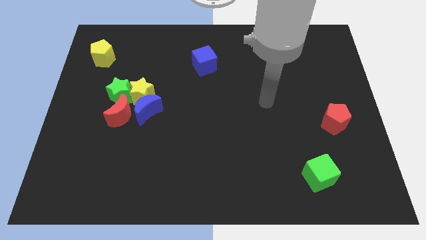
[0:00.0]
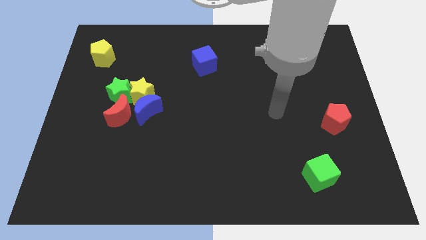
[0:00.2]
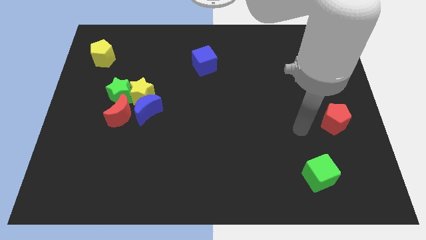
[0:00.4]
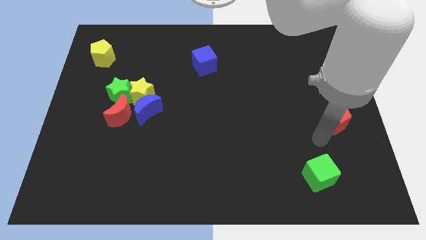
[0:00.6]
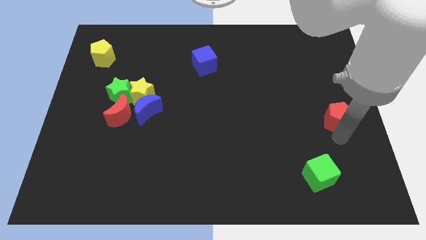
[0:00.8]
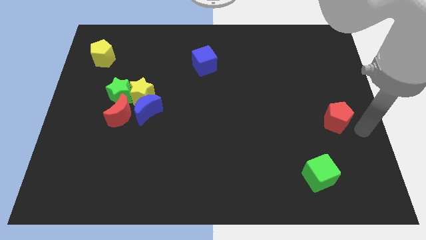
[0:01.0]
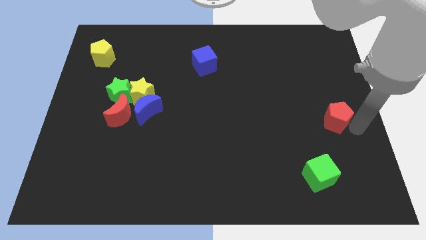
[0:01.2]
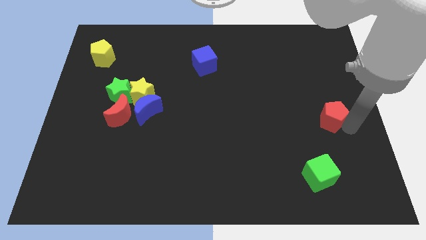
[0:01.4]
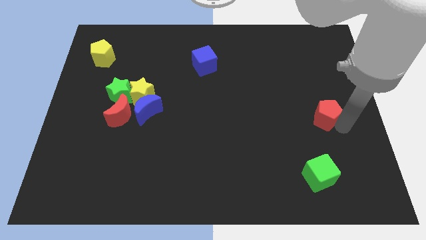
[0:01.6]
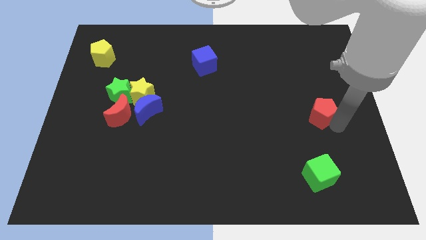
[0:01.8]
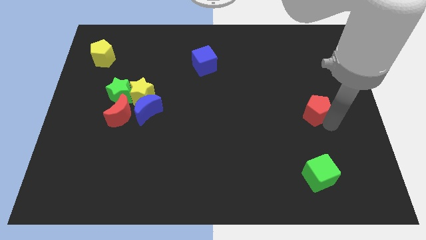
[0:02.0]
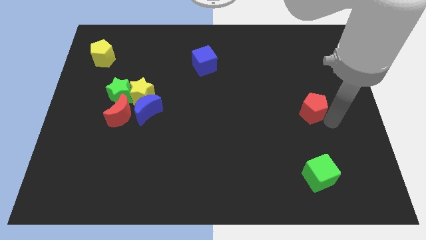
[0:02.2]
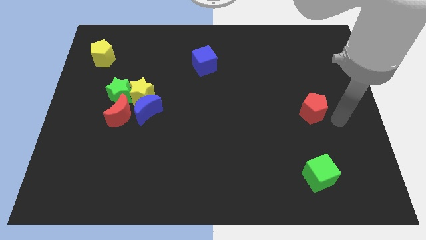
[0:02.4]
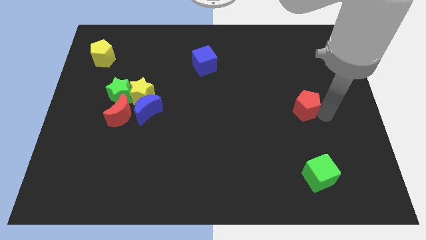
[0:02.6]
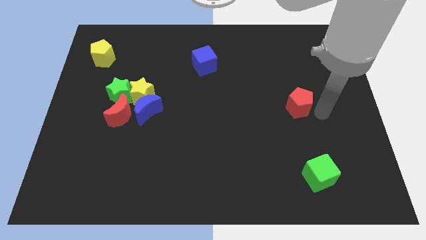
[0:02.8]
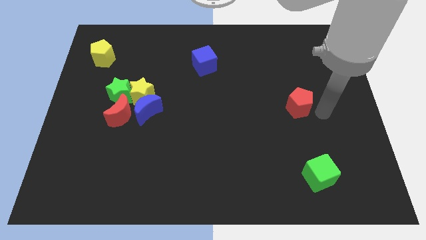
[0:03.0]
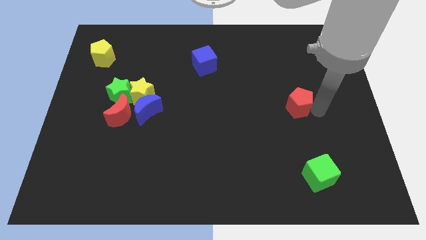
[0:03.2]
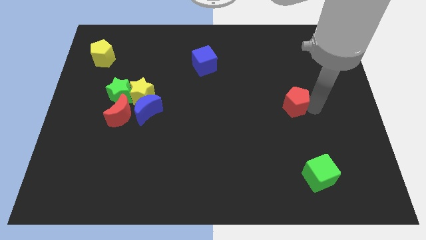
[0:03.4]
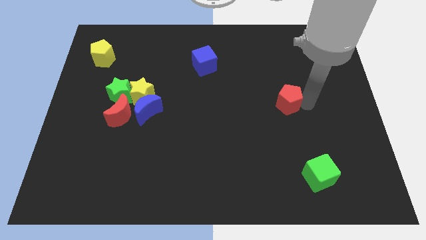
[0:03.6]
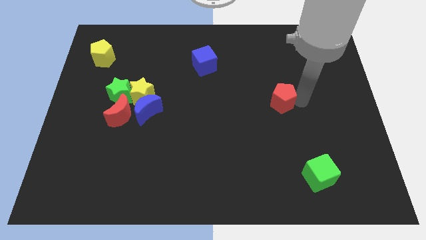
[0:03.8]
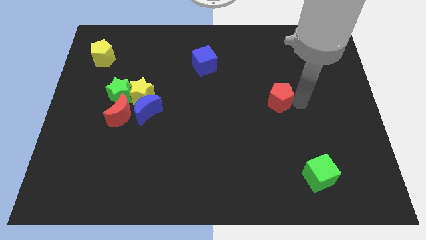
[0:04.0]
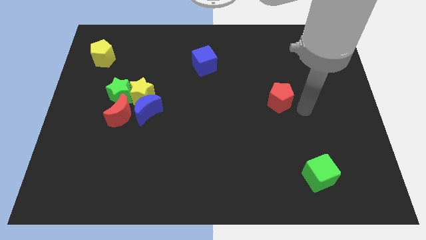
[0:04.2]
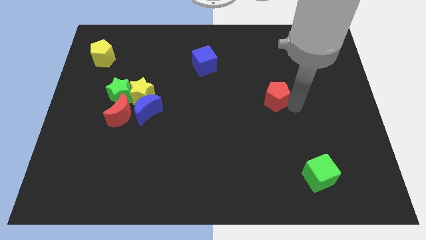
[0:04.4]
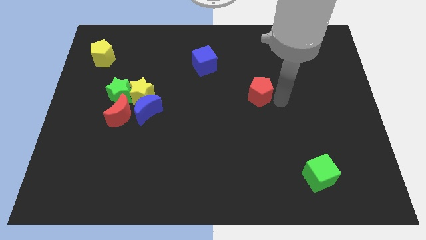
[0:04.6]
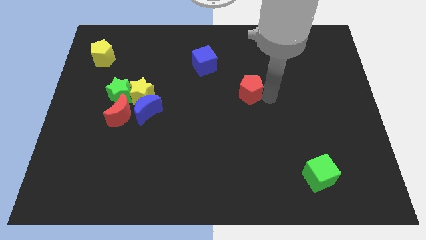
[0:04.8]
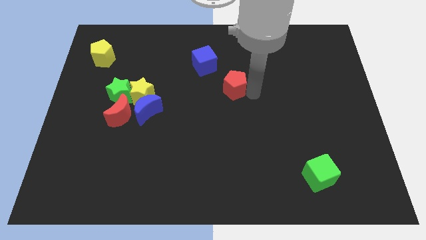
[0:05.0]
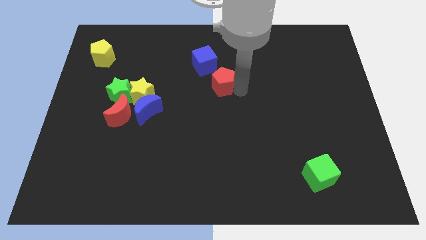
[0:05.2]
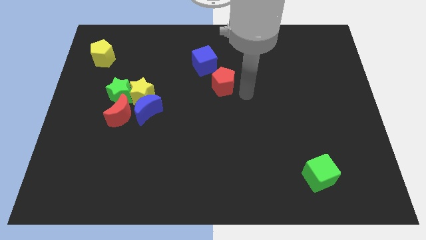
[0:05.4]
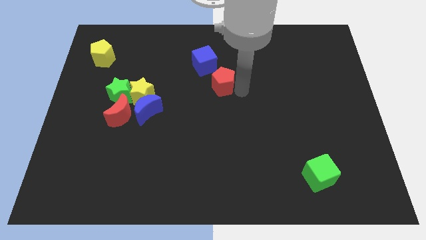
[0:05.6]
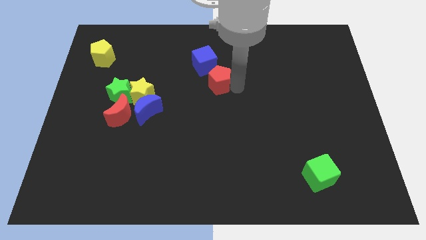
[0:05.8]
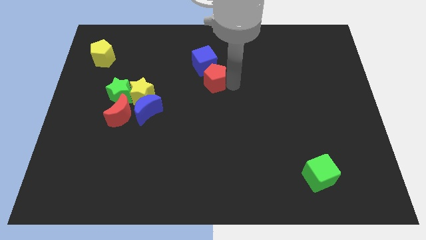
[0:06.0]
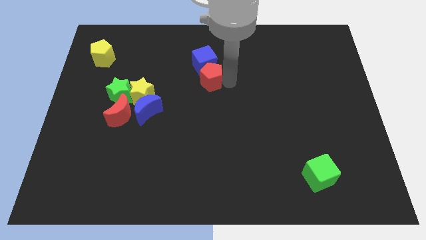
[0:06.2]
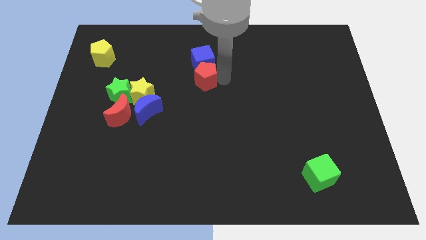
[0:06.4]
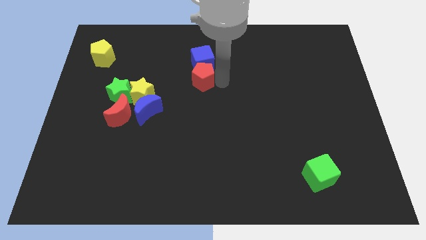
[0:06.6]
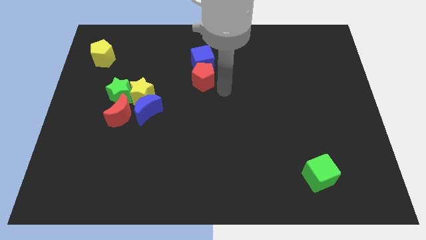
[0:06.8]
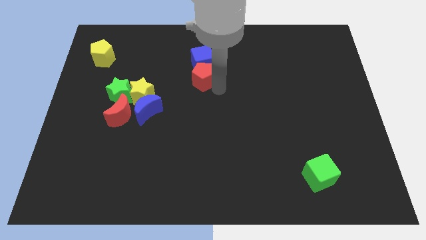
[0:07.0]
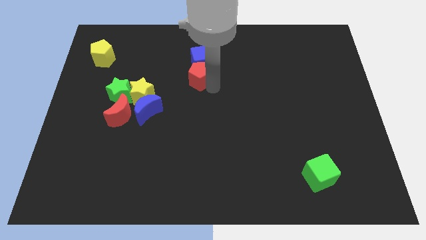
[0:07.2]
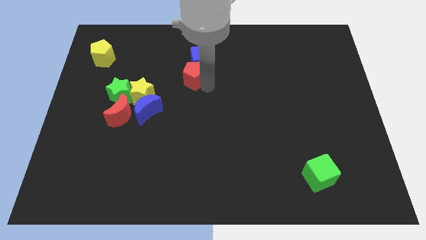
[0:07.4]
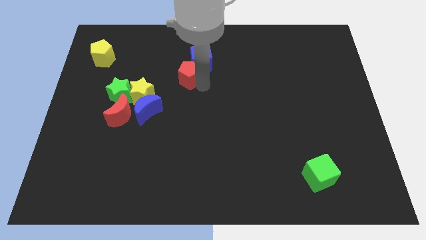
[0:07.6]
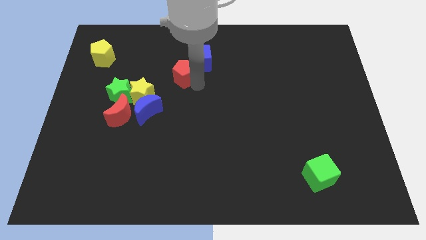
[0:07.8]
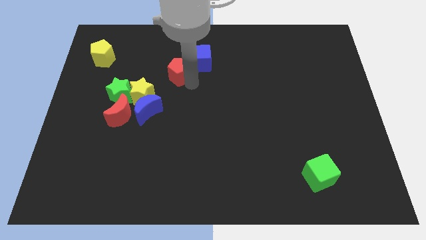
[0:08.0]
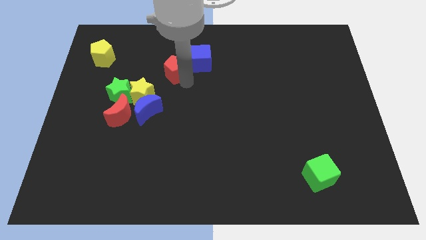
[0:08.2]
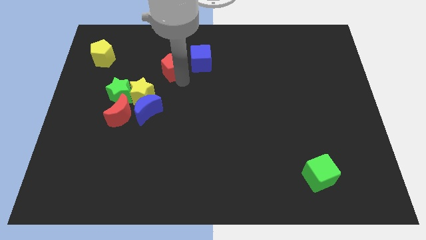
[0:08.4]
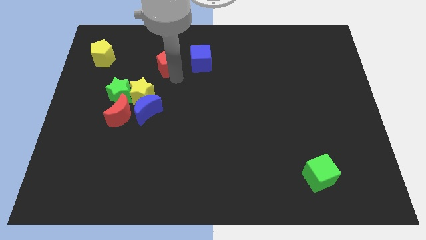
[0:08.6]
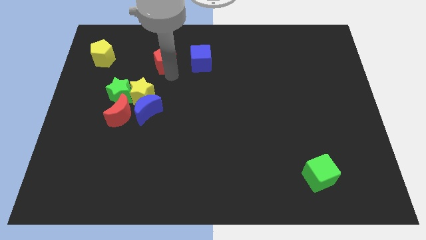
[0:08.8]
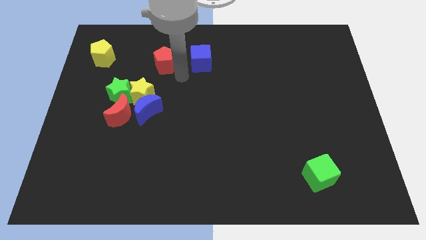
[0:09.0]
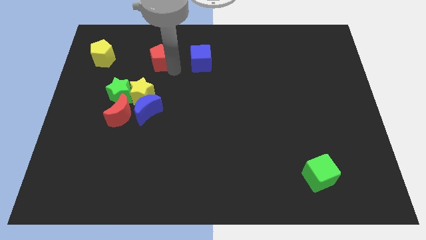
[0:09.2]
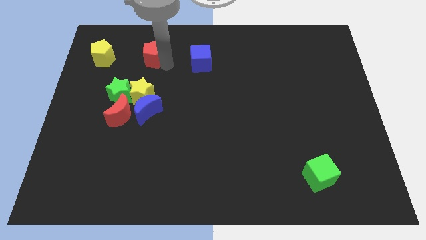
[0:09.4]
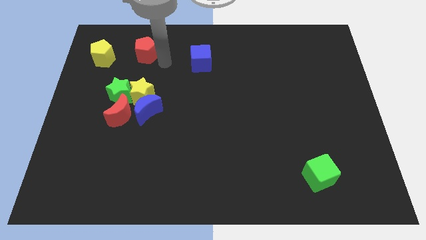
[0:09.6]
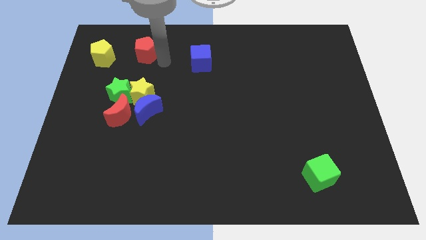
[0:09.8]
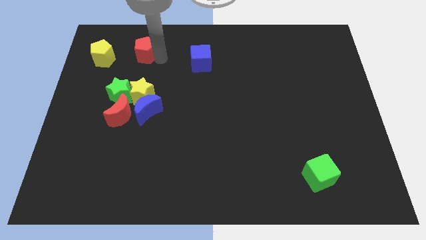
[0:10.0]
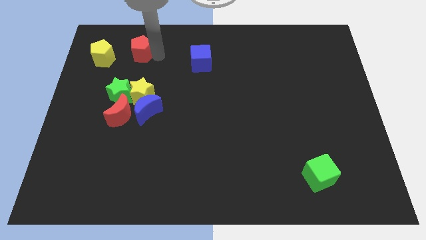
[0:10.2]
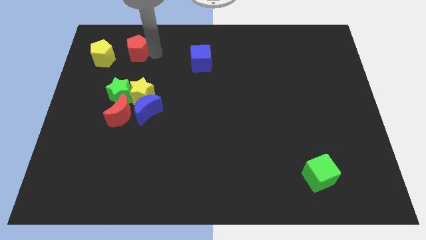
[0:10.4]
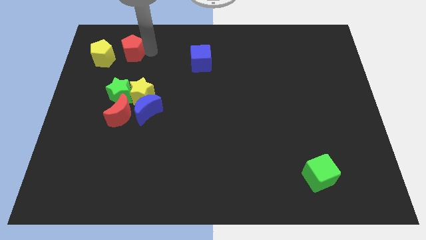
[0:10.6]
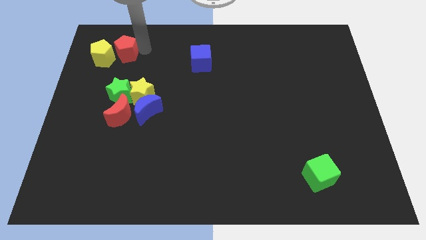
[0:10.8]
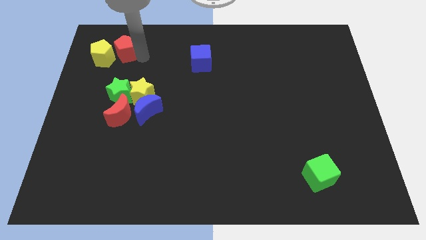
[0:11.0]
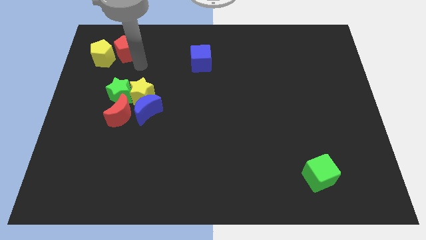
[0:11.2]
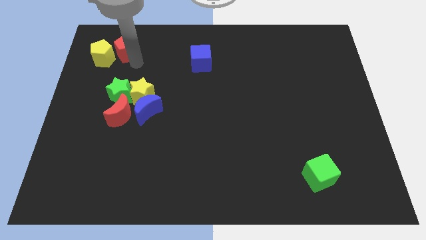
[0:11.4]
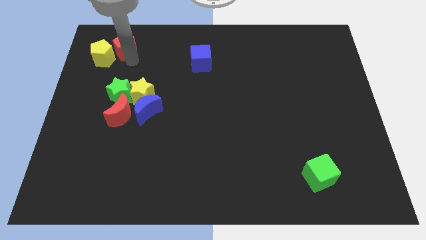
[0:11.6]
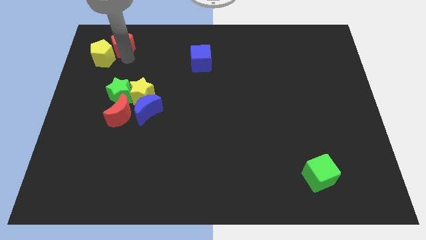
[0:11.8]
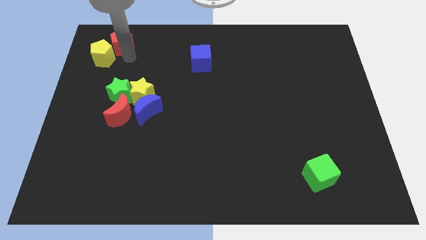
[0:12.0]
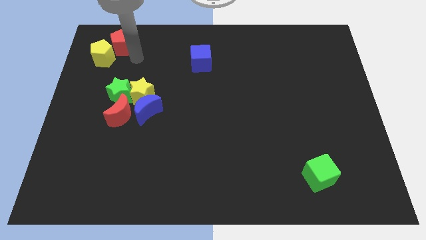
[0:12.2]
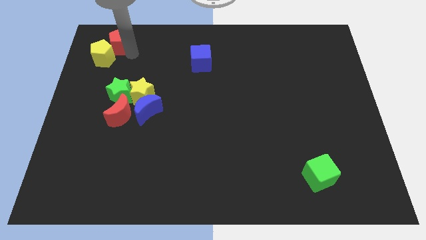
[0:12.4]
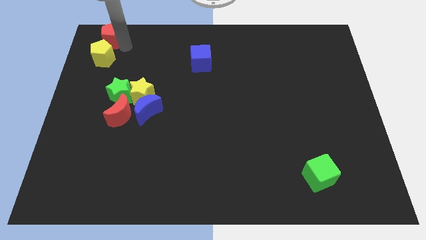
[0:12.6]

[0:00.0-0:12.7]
put the red pentagon to the upper left corner
